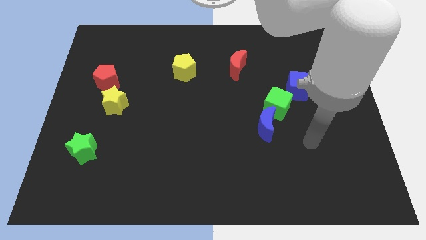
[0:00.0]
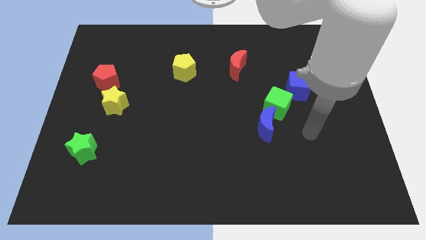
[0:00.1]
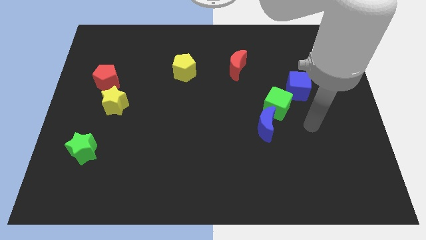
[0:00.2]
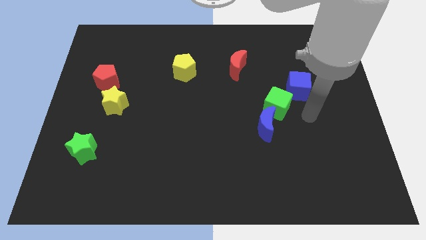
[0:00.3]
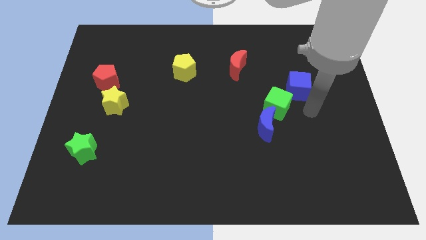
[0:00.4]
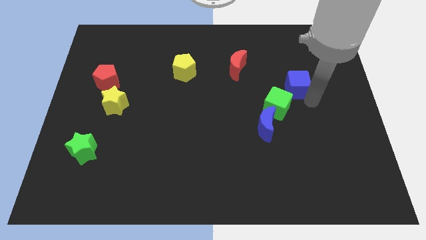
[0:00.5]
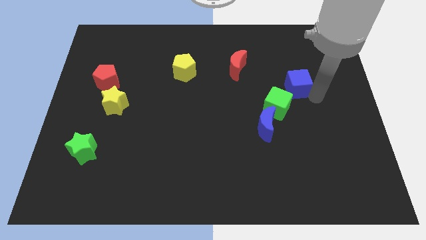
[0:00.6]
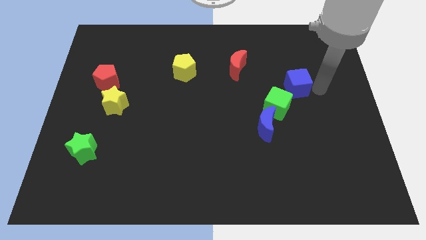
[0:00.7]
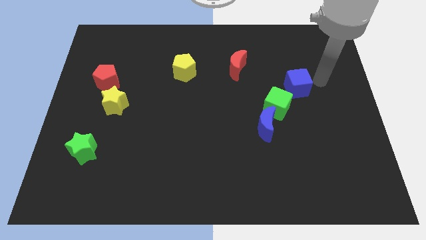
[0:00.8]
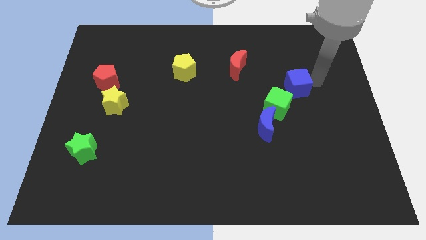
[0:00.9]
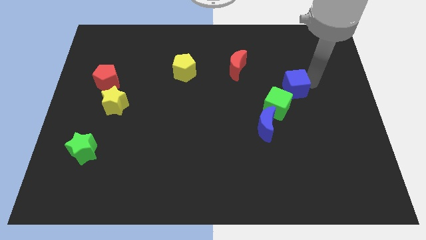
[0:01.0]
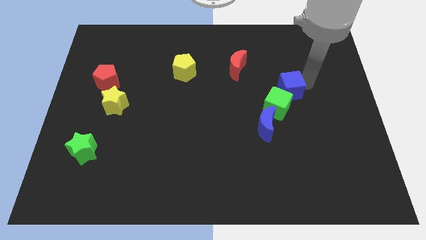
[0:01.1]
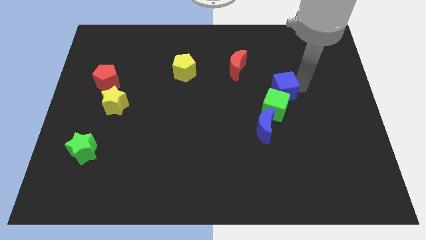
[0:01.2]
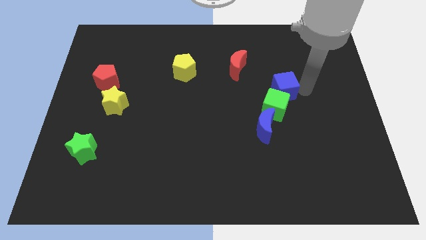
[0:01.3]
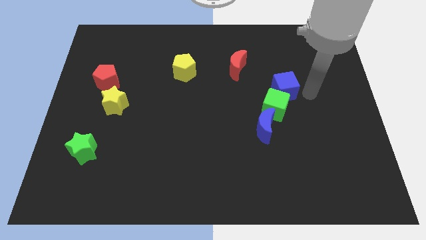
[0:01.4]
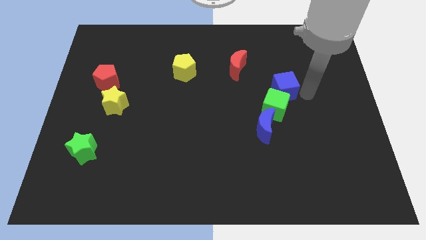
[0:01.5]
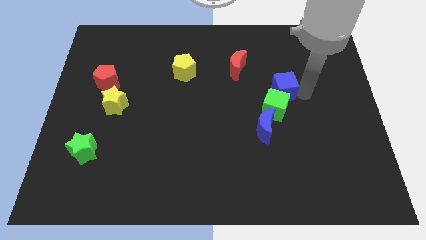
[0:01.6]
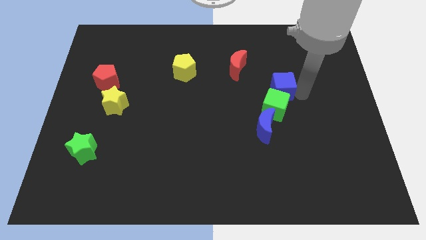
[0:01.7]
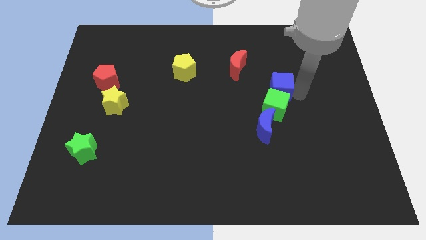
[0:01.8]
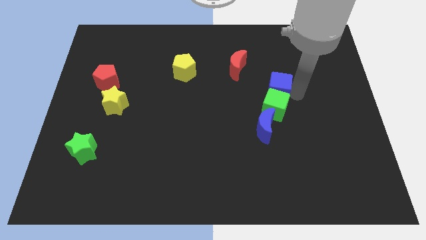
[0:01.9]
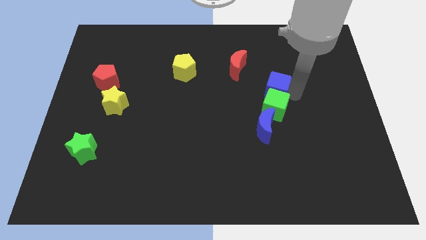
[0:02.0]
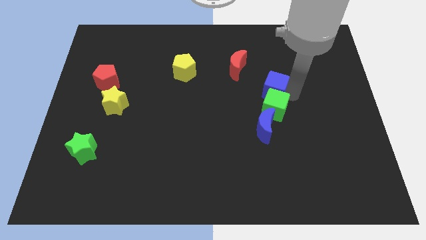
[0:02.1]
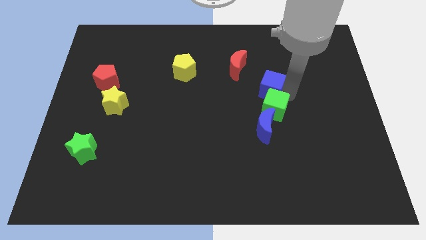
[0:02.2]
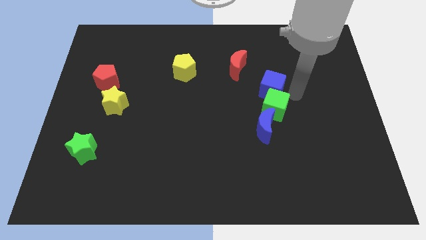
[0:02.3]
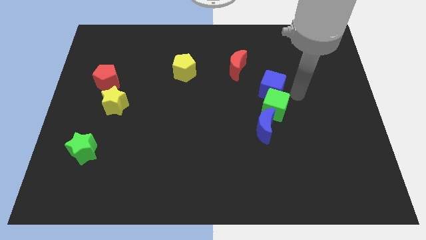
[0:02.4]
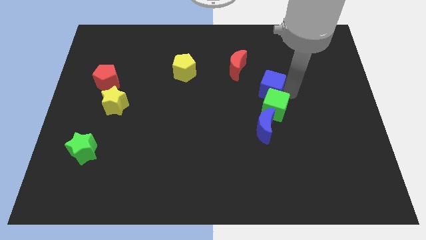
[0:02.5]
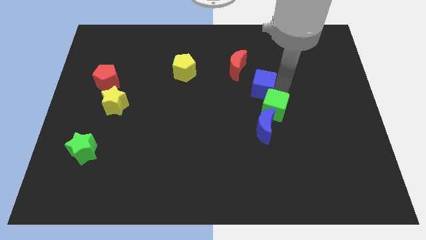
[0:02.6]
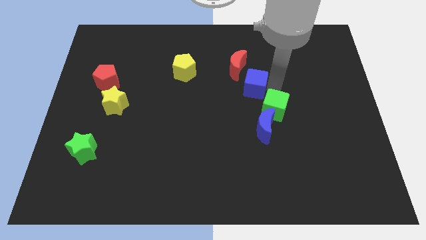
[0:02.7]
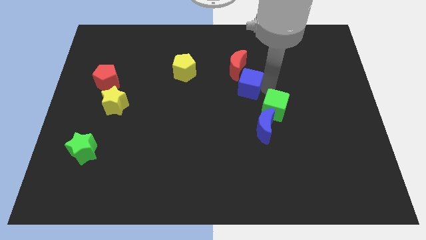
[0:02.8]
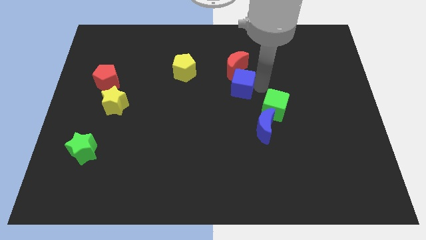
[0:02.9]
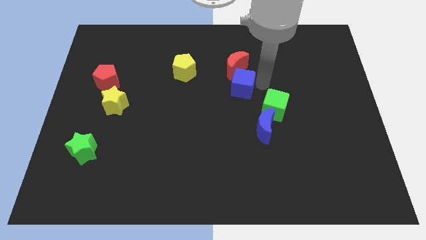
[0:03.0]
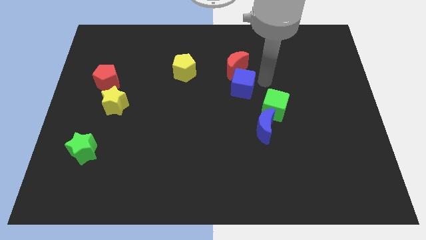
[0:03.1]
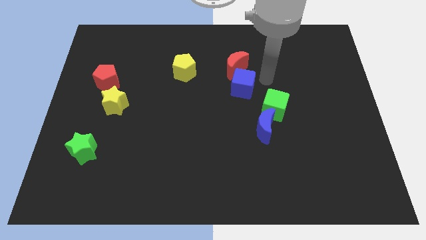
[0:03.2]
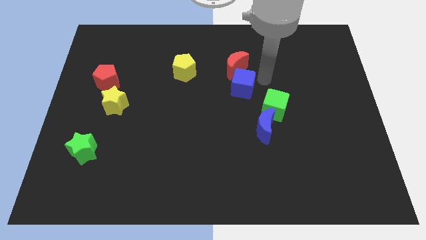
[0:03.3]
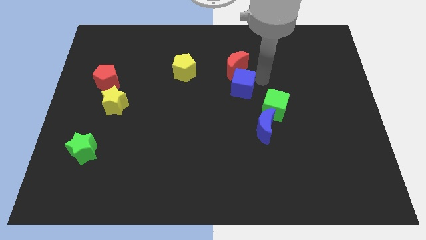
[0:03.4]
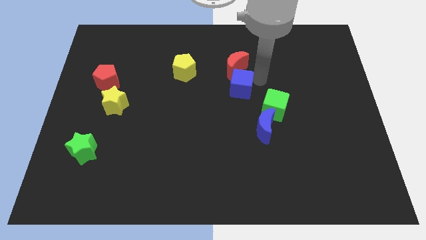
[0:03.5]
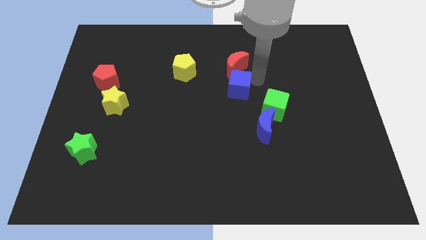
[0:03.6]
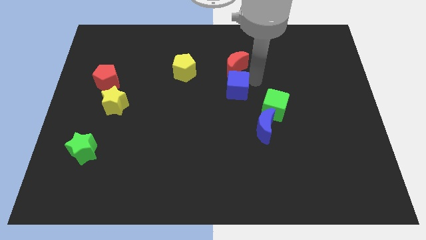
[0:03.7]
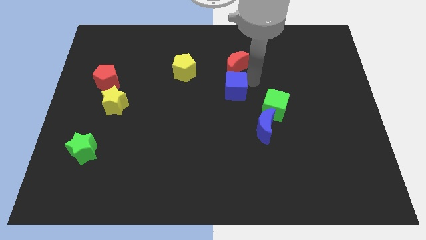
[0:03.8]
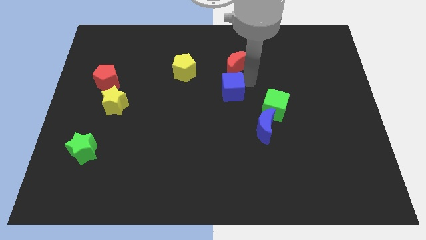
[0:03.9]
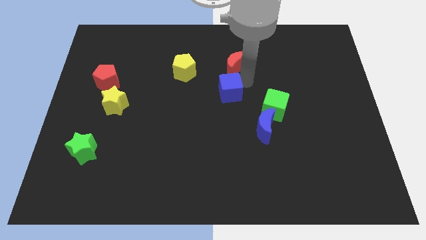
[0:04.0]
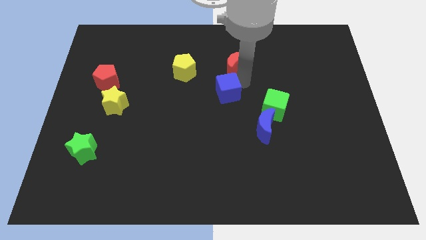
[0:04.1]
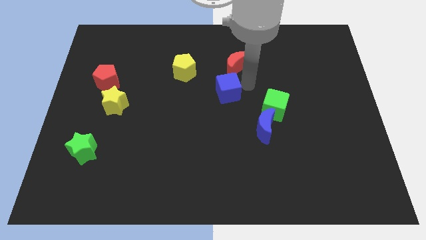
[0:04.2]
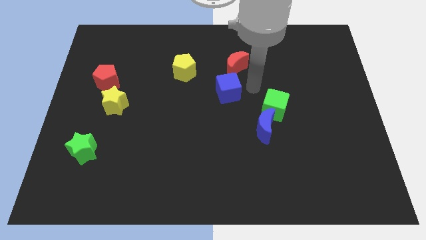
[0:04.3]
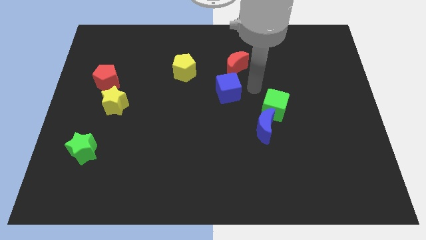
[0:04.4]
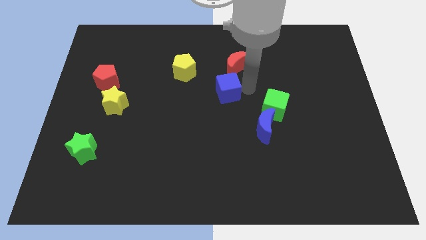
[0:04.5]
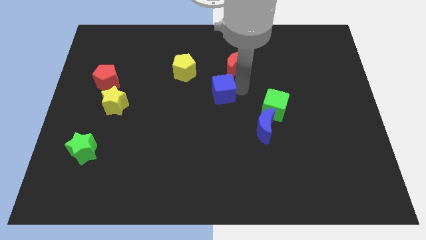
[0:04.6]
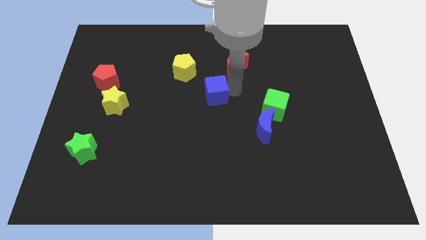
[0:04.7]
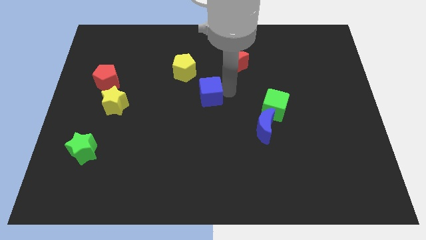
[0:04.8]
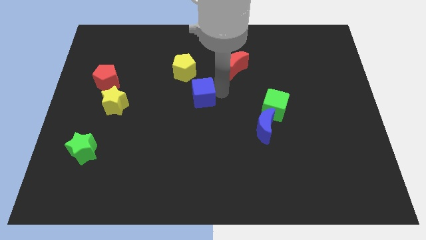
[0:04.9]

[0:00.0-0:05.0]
push the blue cube to the bottom side of the yellow pentagon

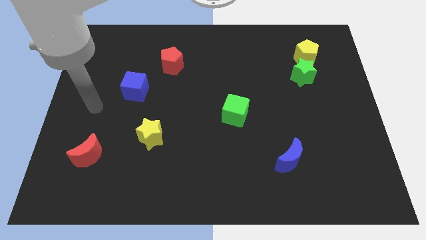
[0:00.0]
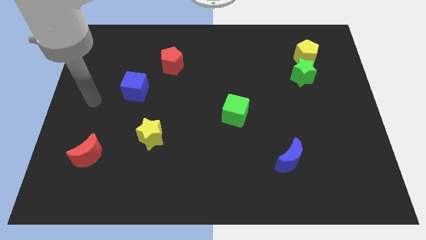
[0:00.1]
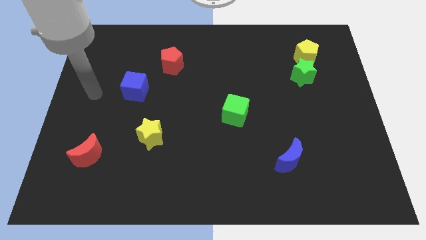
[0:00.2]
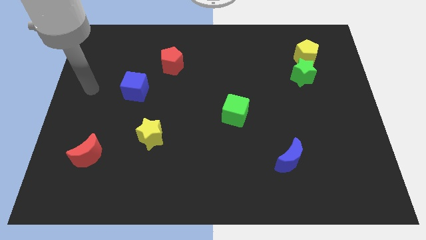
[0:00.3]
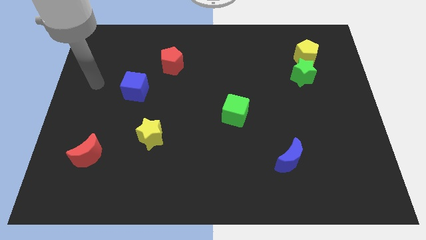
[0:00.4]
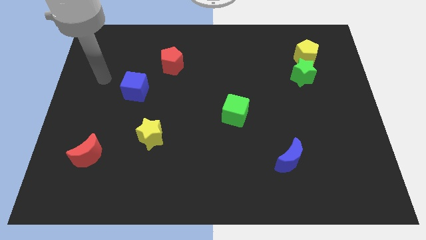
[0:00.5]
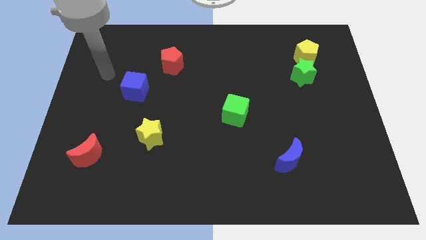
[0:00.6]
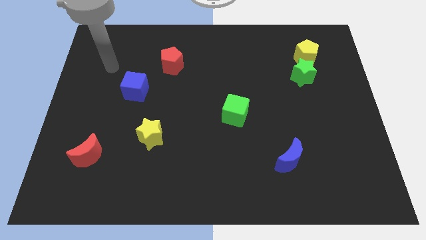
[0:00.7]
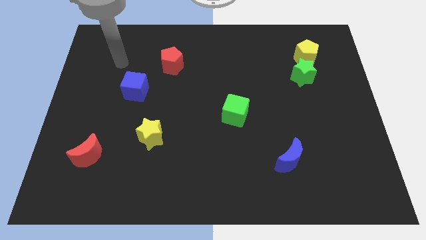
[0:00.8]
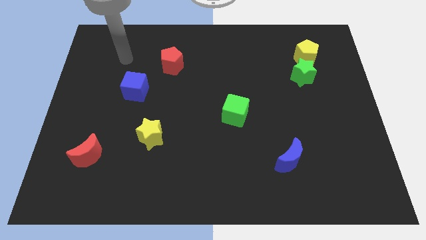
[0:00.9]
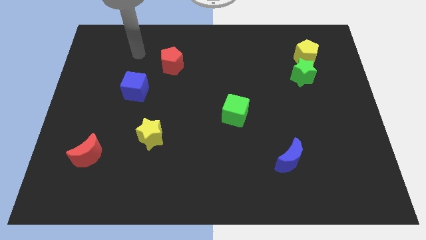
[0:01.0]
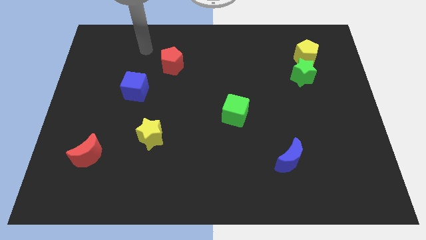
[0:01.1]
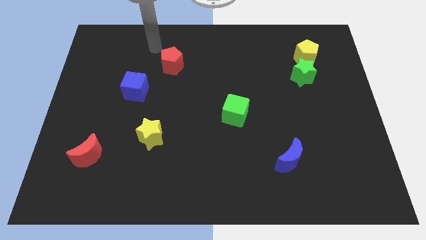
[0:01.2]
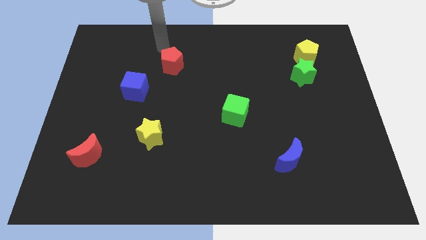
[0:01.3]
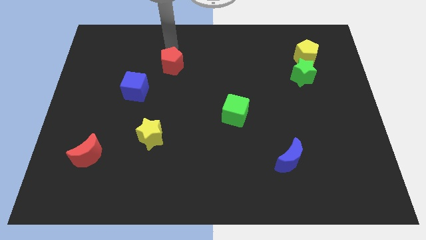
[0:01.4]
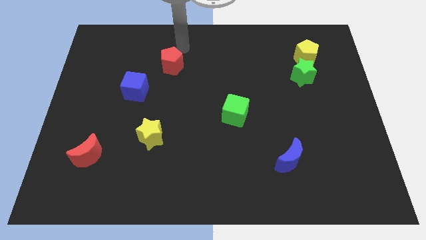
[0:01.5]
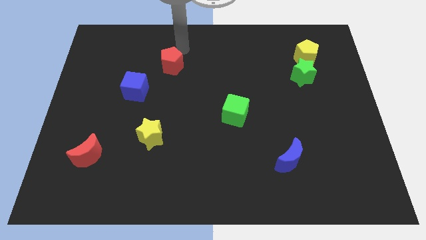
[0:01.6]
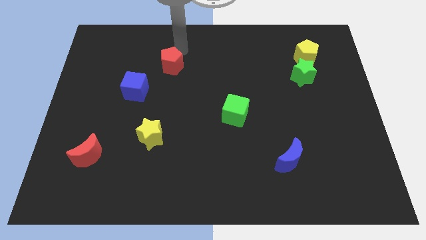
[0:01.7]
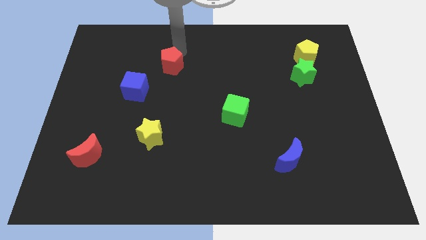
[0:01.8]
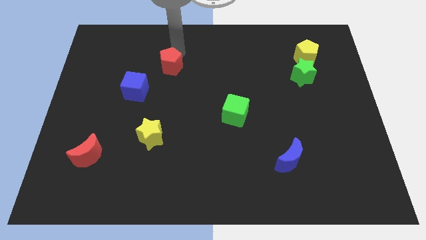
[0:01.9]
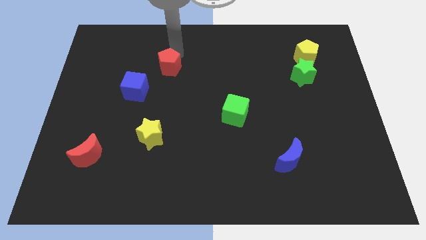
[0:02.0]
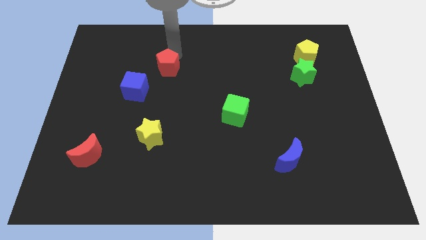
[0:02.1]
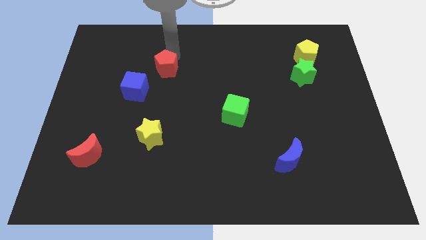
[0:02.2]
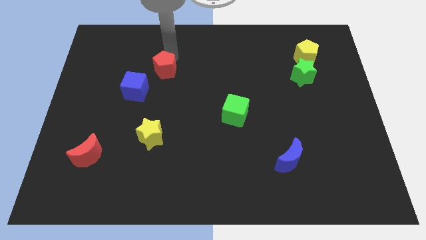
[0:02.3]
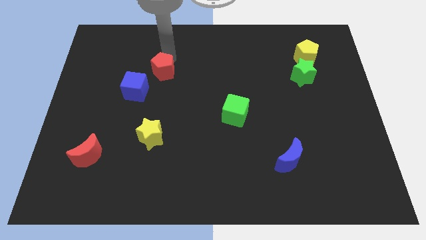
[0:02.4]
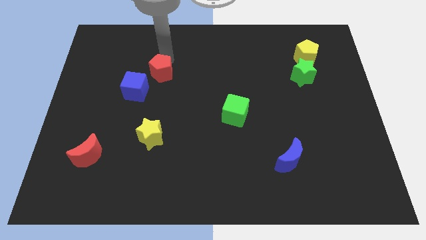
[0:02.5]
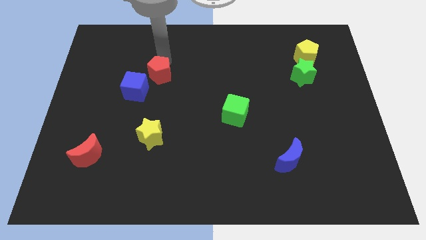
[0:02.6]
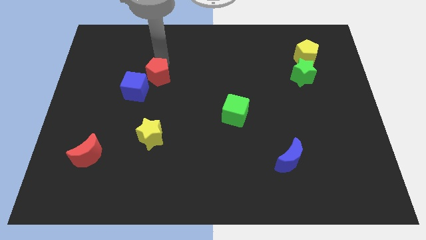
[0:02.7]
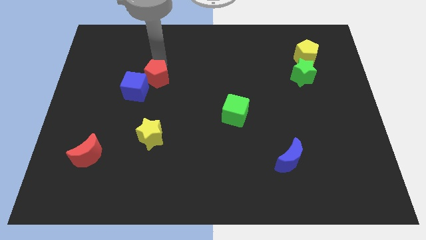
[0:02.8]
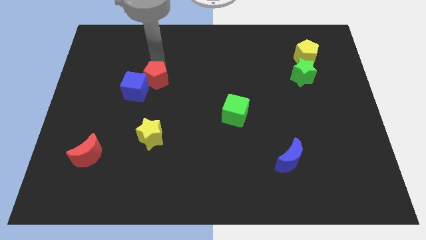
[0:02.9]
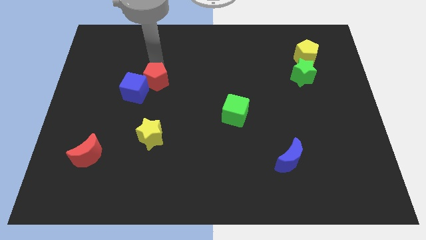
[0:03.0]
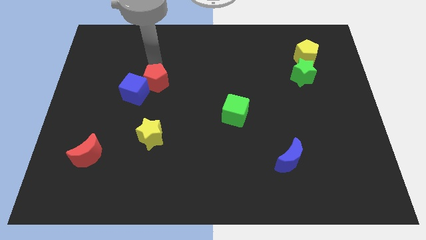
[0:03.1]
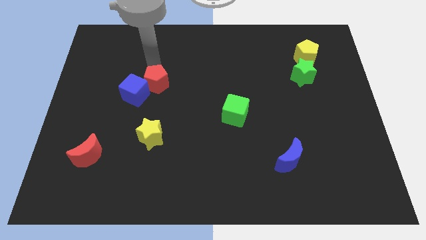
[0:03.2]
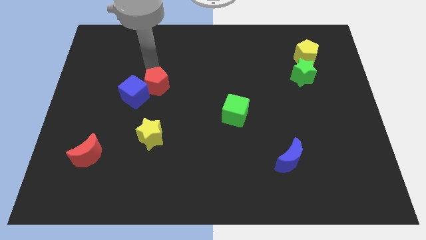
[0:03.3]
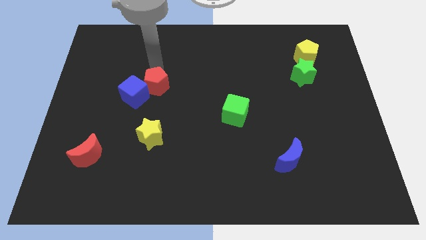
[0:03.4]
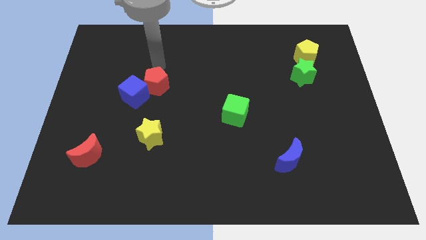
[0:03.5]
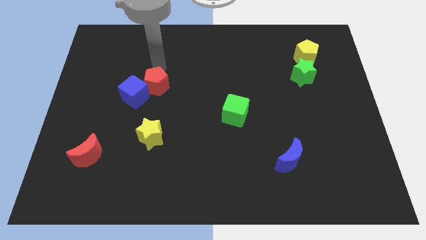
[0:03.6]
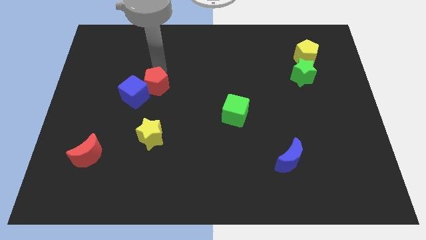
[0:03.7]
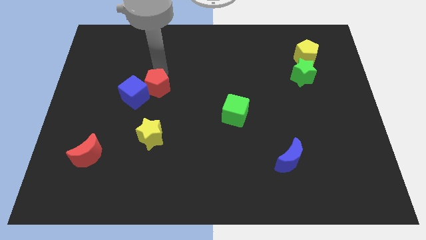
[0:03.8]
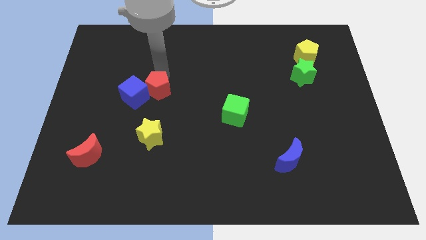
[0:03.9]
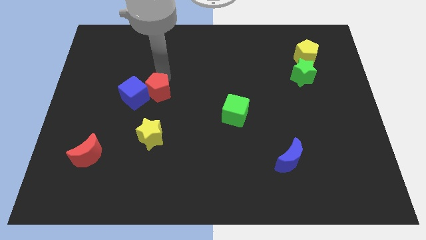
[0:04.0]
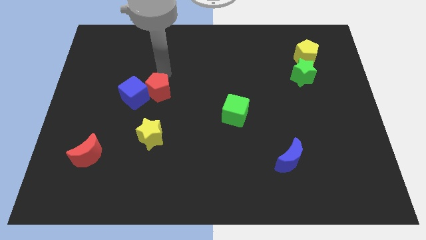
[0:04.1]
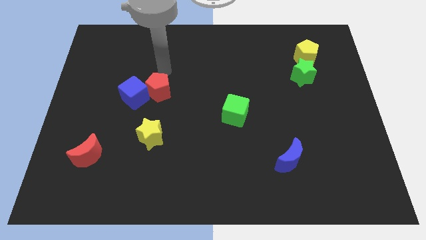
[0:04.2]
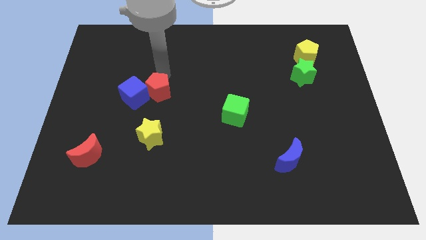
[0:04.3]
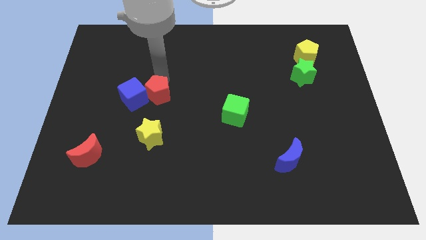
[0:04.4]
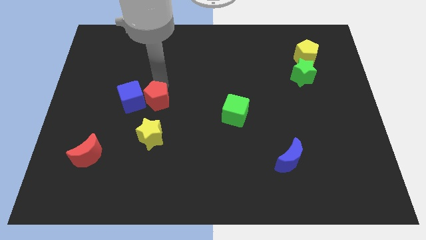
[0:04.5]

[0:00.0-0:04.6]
slide the red pentagon to the bottom right of the blue cube
